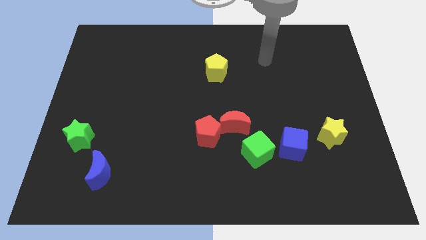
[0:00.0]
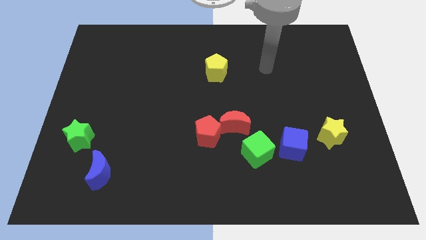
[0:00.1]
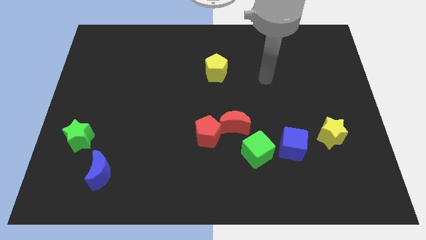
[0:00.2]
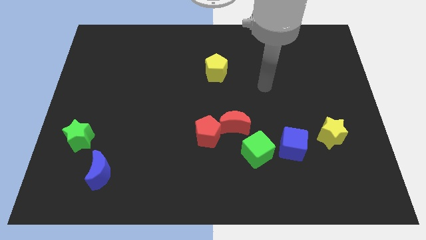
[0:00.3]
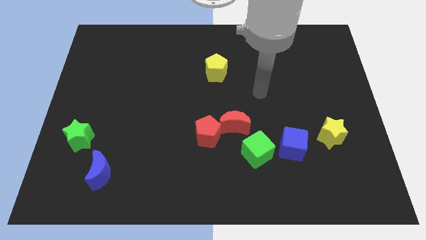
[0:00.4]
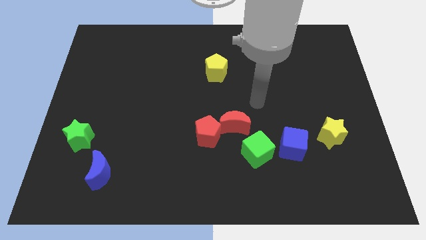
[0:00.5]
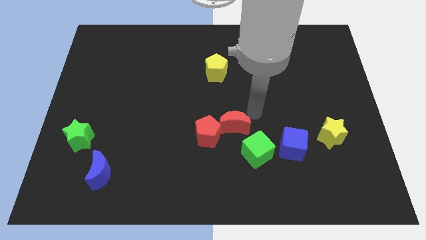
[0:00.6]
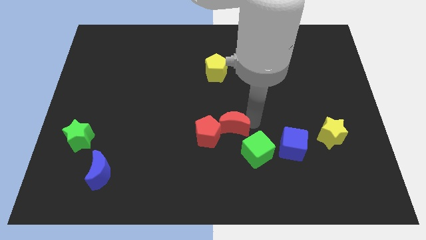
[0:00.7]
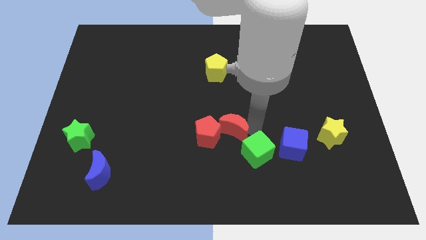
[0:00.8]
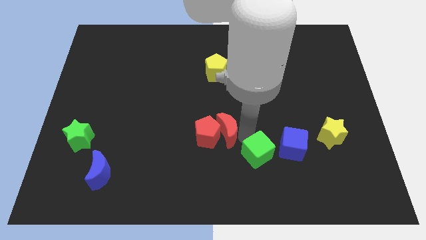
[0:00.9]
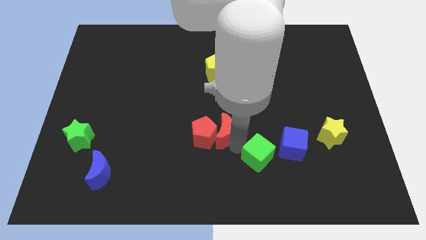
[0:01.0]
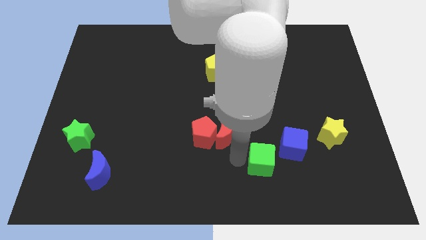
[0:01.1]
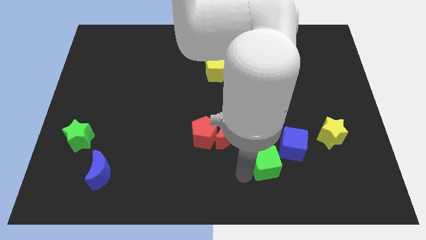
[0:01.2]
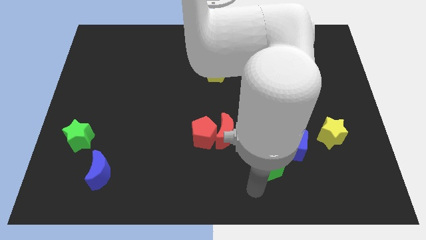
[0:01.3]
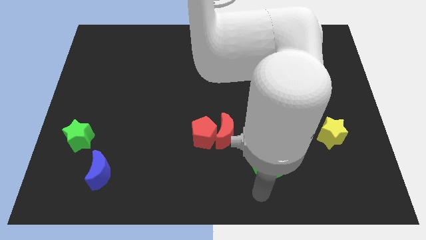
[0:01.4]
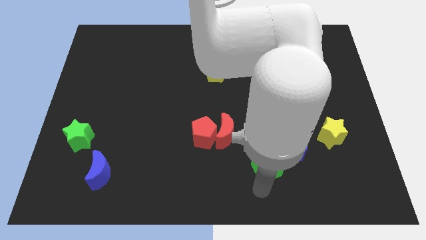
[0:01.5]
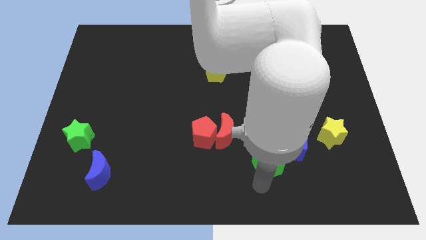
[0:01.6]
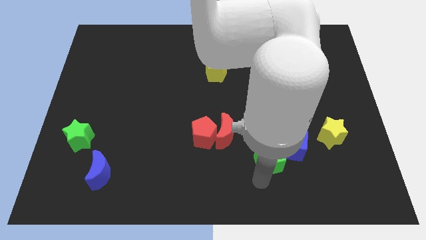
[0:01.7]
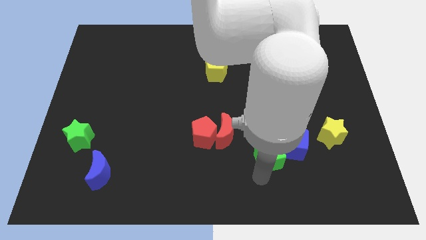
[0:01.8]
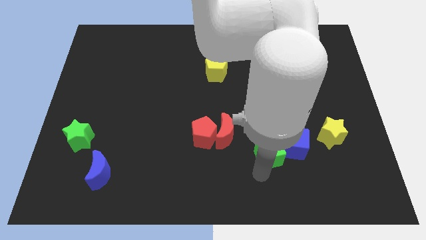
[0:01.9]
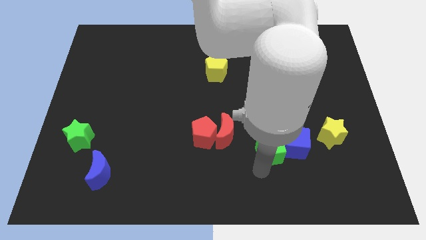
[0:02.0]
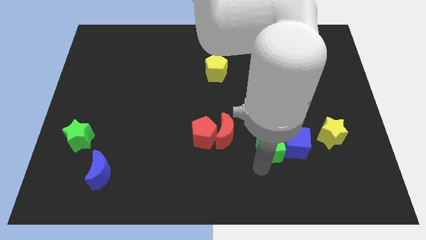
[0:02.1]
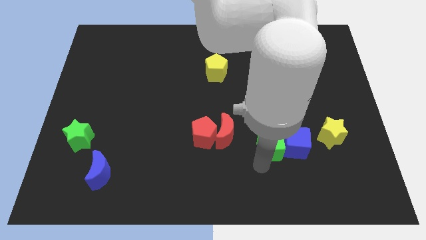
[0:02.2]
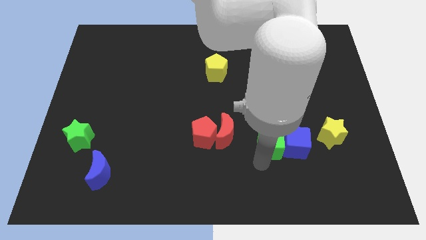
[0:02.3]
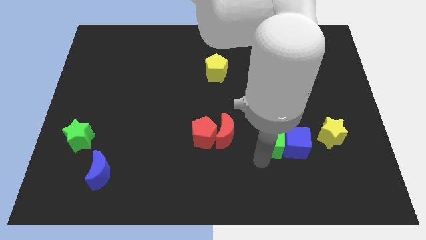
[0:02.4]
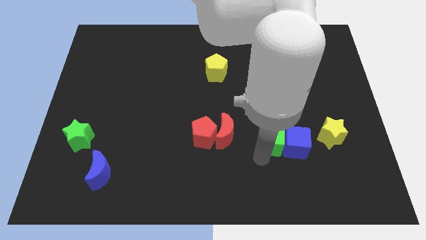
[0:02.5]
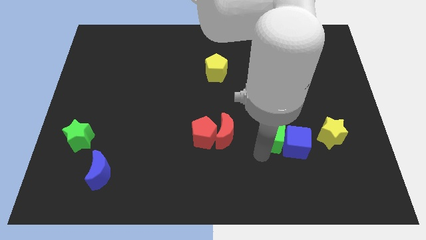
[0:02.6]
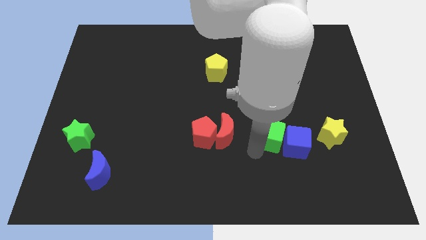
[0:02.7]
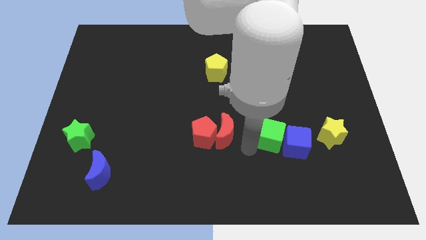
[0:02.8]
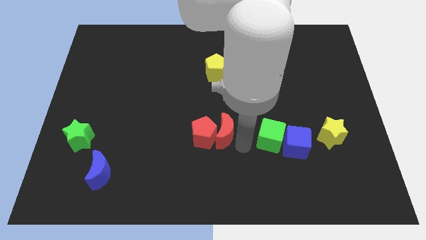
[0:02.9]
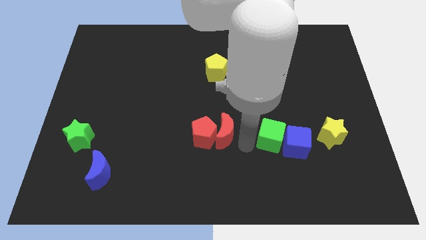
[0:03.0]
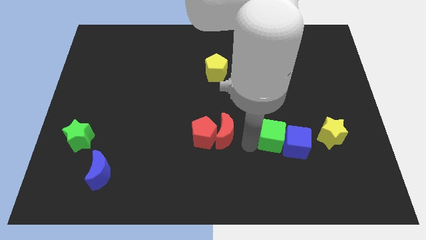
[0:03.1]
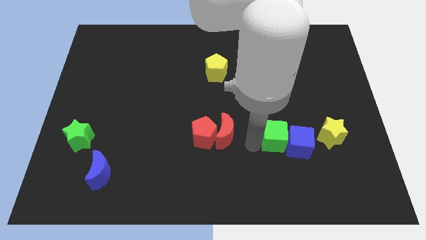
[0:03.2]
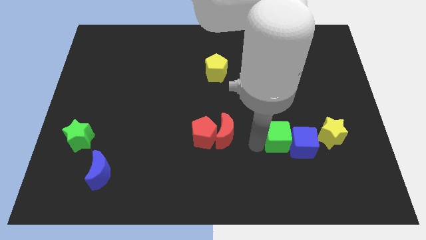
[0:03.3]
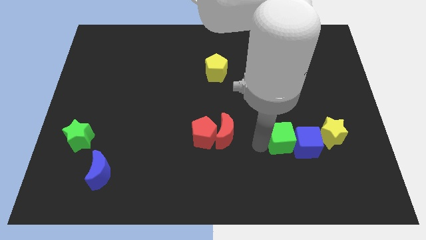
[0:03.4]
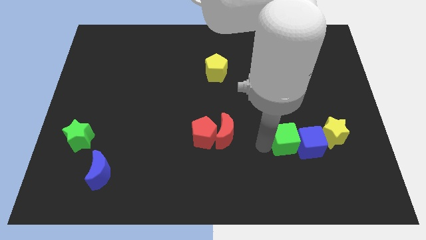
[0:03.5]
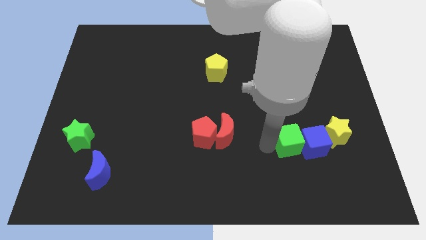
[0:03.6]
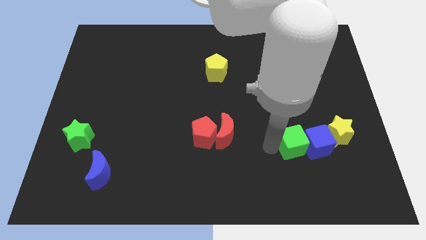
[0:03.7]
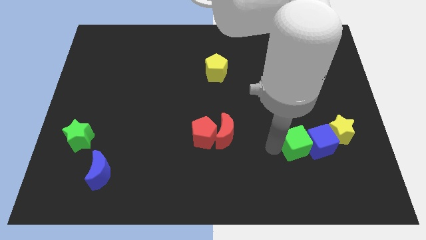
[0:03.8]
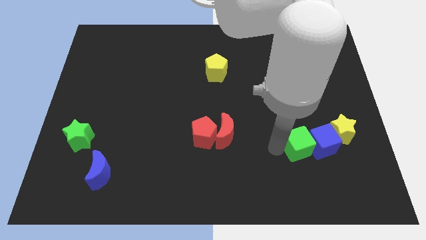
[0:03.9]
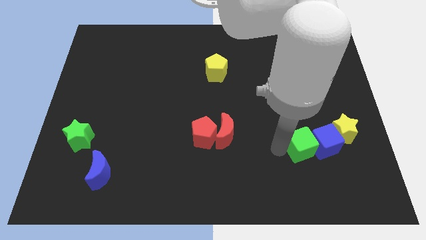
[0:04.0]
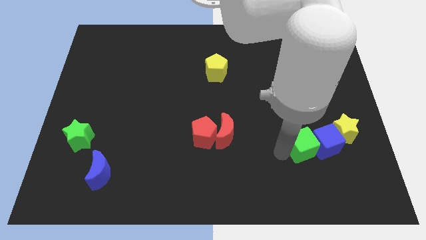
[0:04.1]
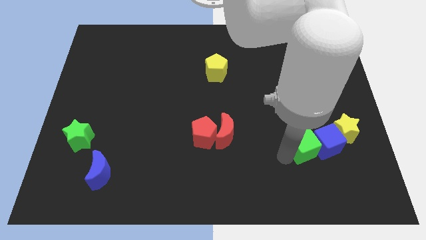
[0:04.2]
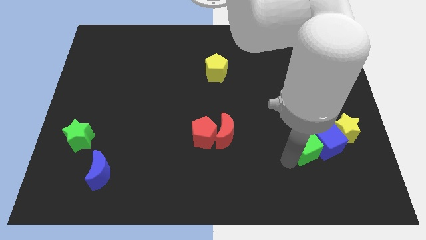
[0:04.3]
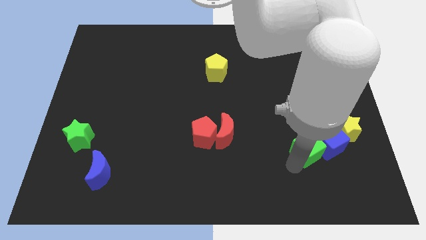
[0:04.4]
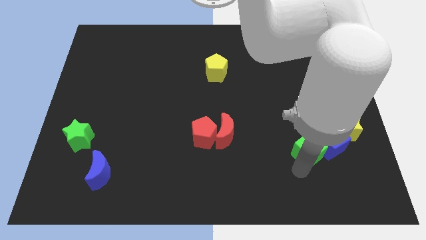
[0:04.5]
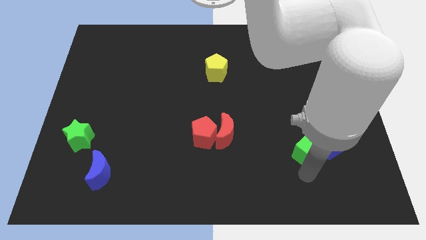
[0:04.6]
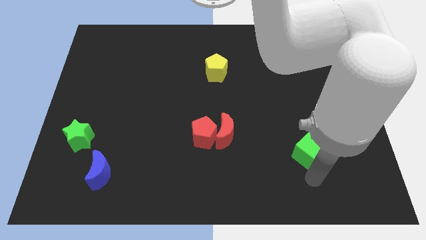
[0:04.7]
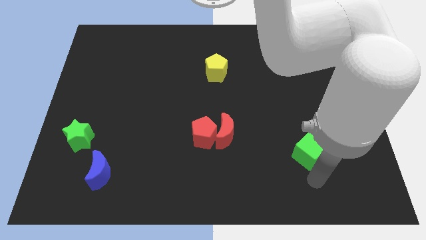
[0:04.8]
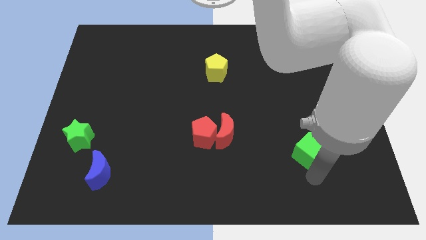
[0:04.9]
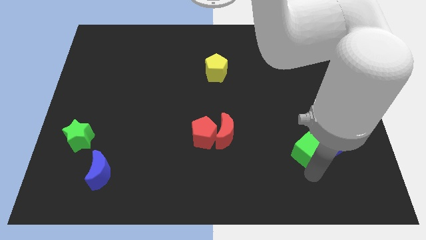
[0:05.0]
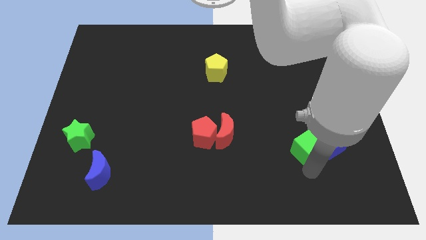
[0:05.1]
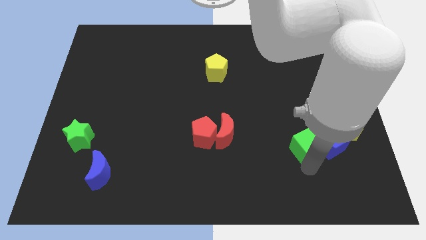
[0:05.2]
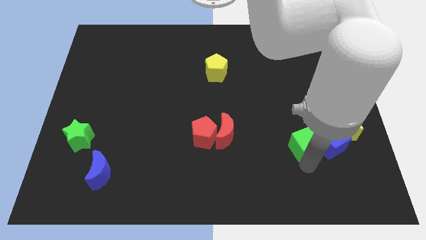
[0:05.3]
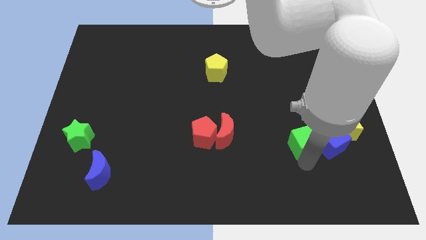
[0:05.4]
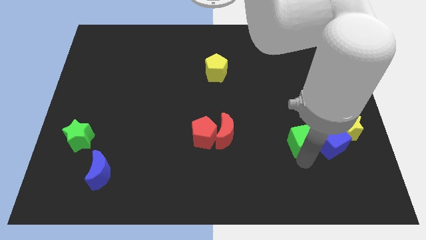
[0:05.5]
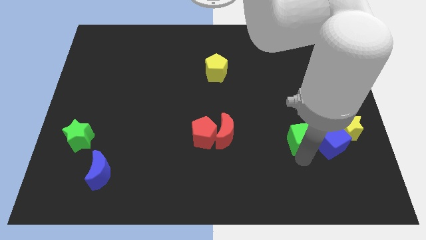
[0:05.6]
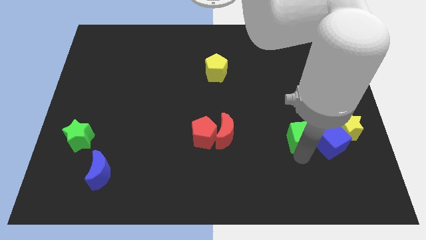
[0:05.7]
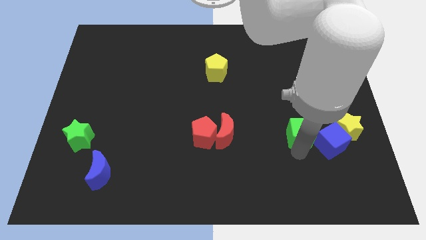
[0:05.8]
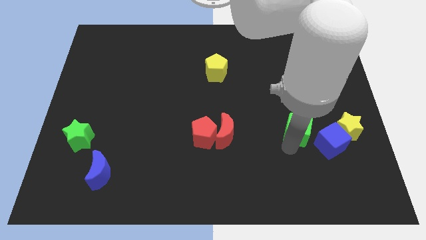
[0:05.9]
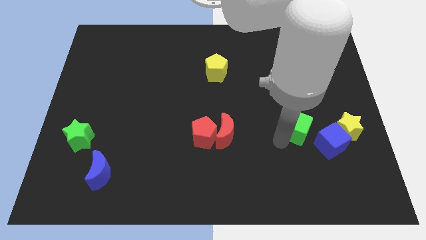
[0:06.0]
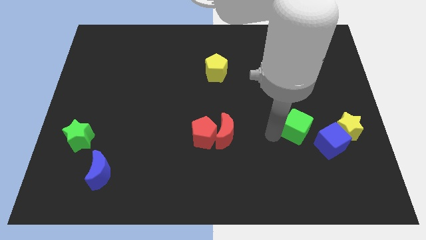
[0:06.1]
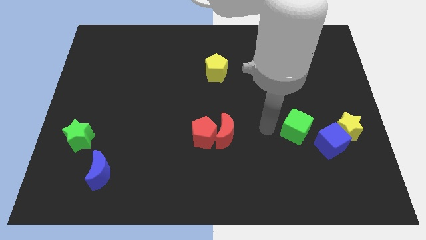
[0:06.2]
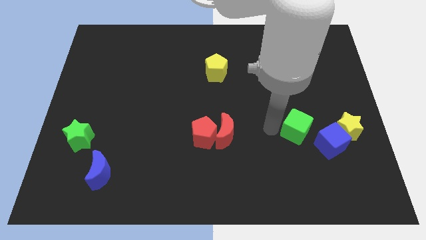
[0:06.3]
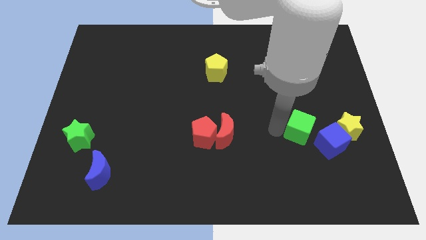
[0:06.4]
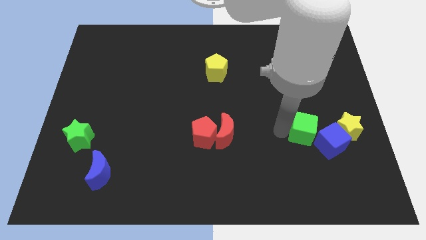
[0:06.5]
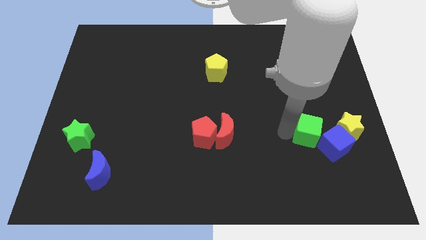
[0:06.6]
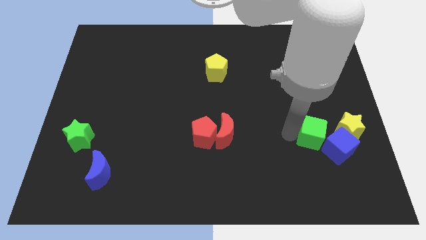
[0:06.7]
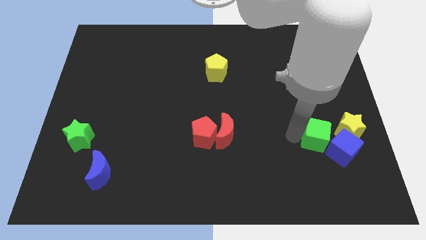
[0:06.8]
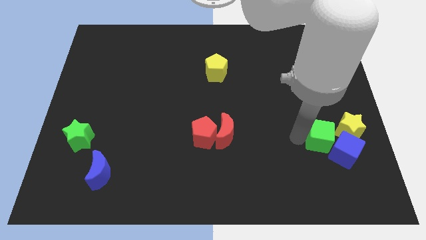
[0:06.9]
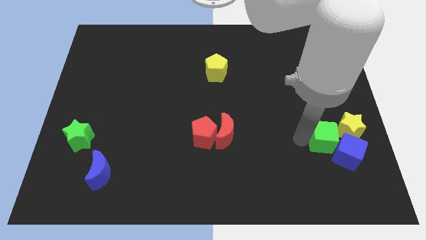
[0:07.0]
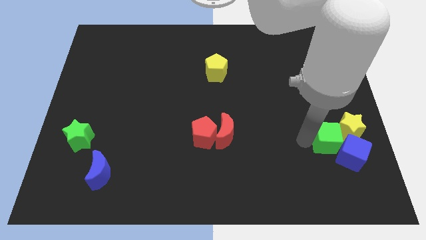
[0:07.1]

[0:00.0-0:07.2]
slide the green cube towards the yellow star

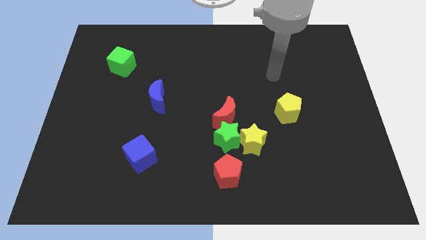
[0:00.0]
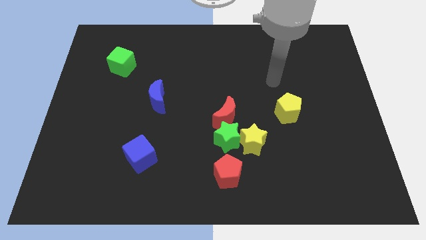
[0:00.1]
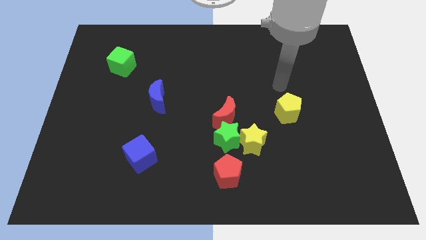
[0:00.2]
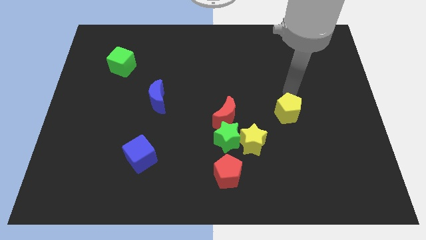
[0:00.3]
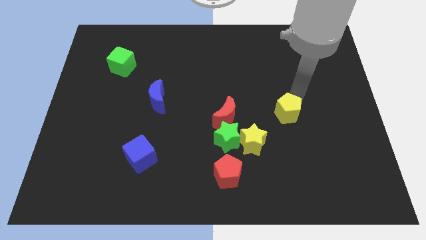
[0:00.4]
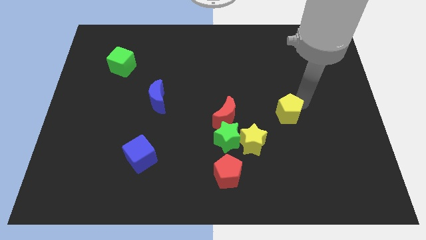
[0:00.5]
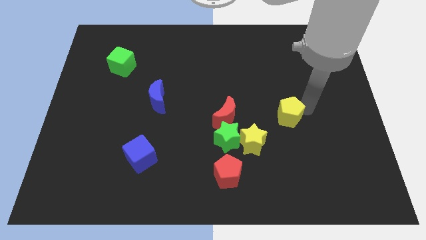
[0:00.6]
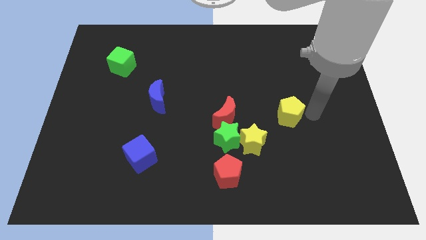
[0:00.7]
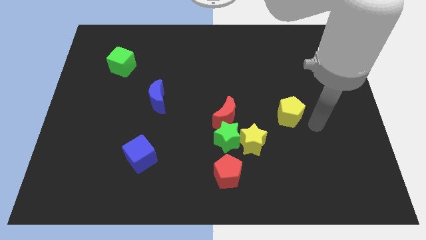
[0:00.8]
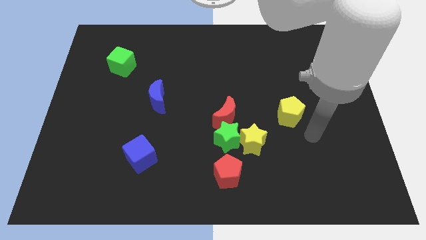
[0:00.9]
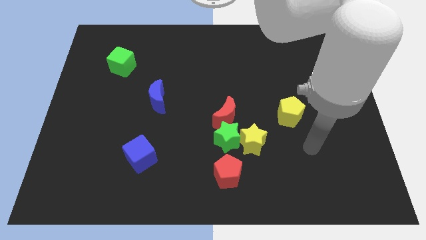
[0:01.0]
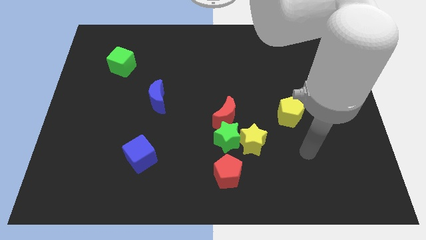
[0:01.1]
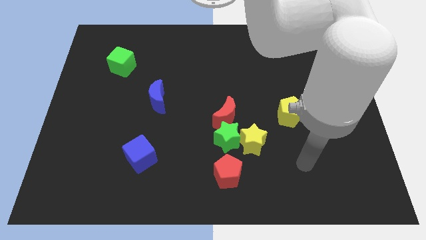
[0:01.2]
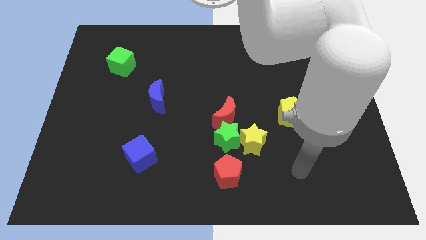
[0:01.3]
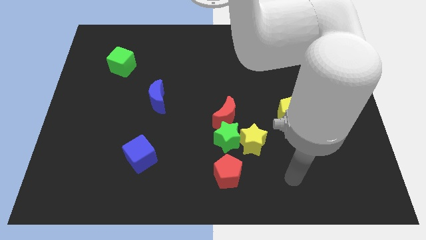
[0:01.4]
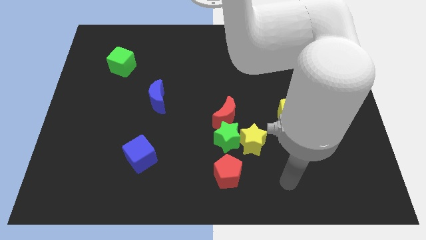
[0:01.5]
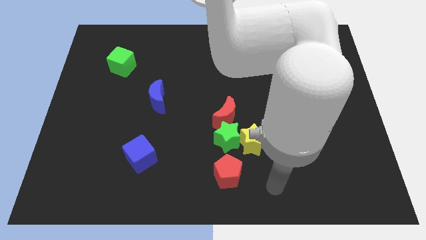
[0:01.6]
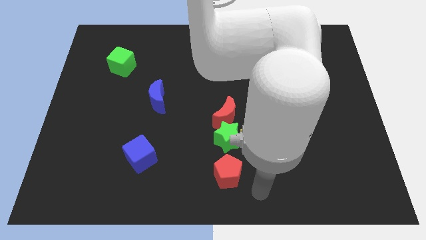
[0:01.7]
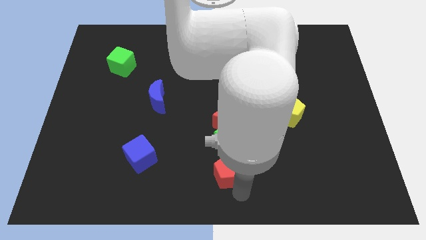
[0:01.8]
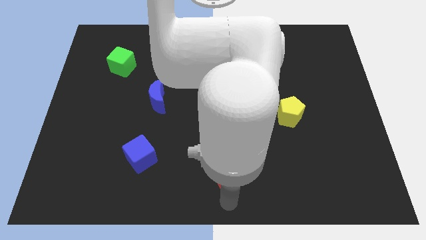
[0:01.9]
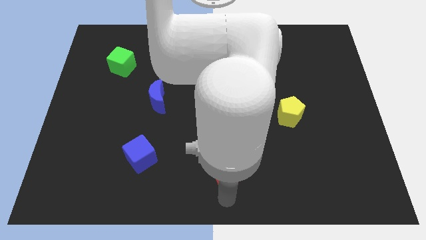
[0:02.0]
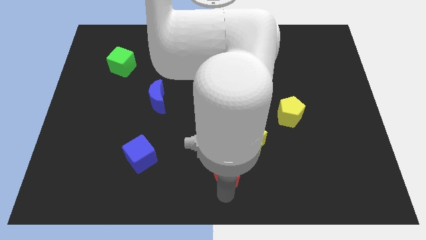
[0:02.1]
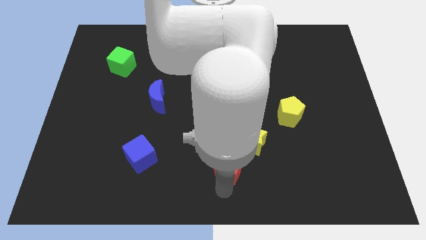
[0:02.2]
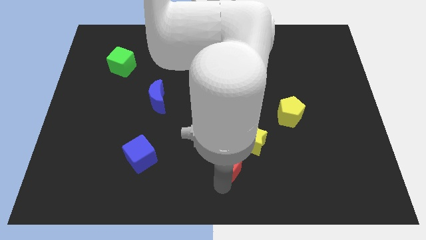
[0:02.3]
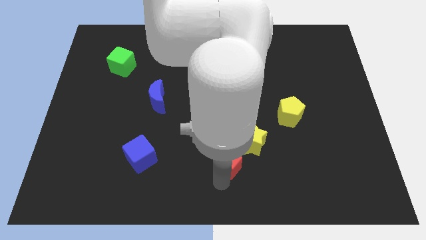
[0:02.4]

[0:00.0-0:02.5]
move the red pentagon close to the green star
